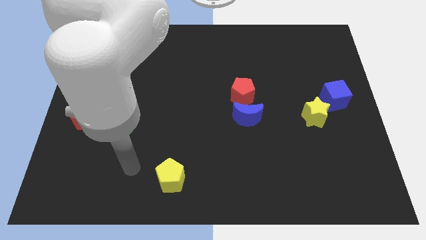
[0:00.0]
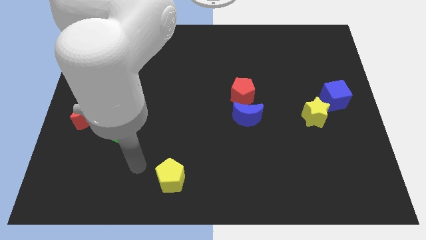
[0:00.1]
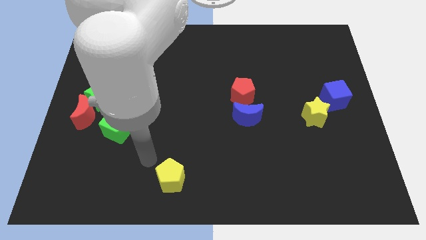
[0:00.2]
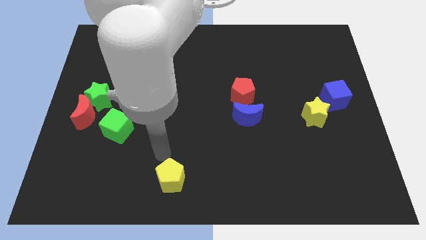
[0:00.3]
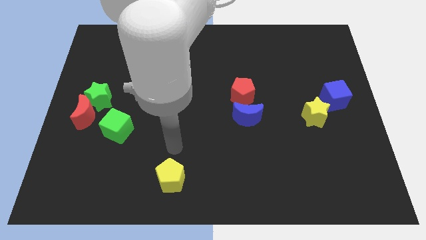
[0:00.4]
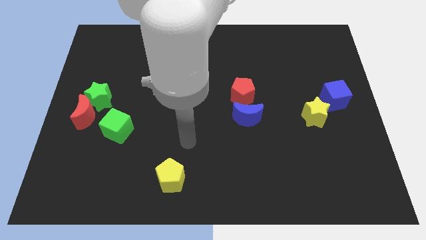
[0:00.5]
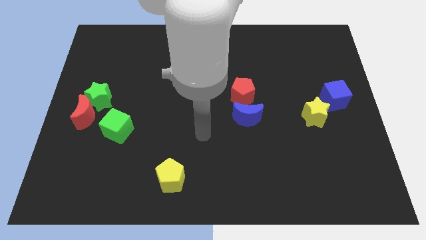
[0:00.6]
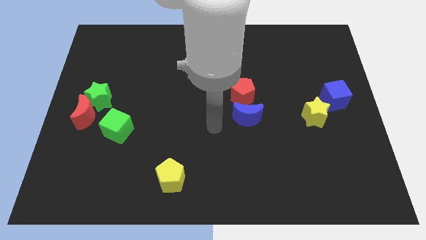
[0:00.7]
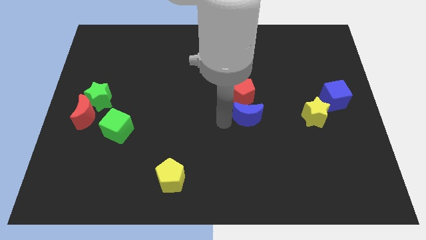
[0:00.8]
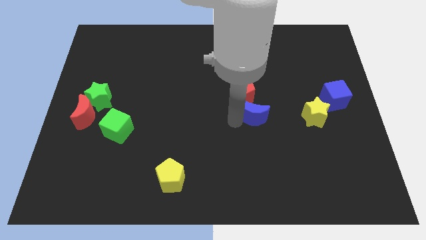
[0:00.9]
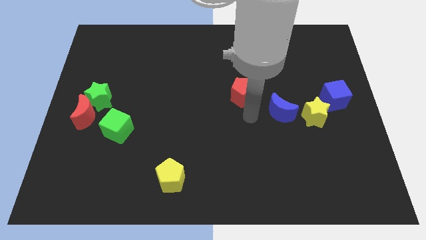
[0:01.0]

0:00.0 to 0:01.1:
separate the red pentagon from the blue moon

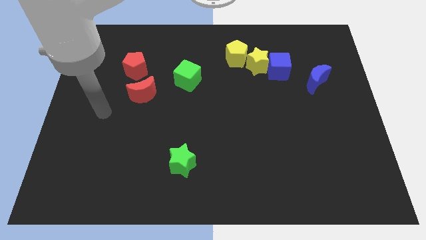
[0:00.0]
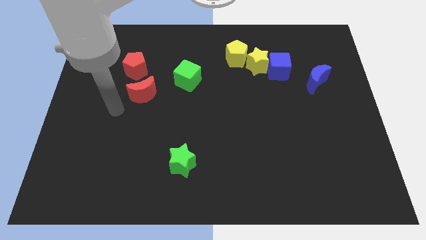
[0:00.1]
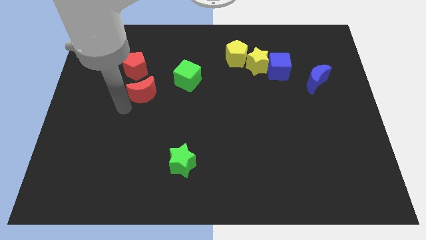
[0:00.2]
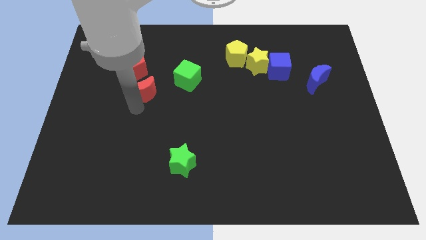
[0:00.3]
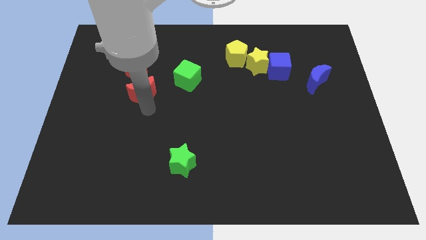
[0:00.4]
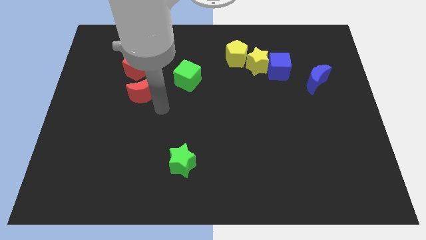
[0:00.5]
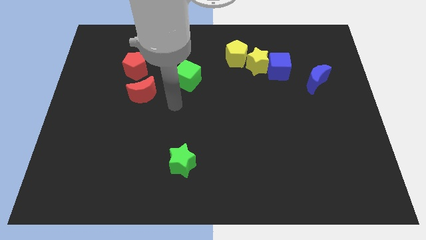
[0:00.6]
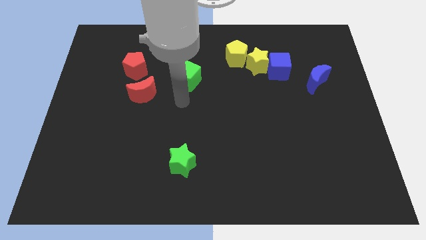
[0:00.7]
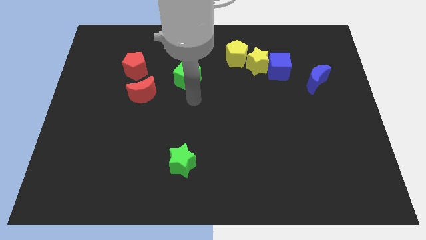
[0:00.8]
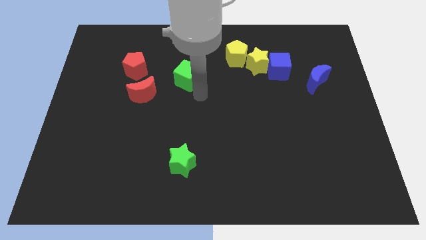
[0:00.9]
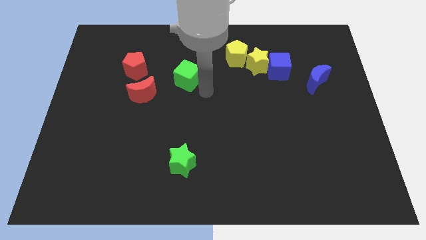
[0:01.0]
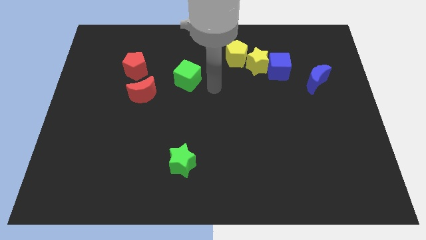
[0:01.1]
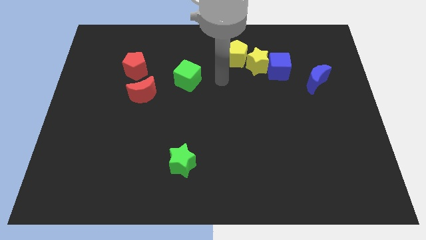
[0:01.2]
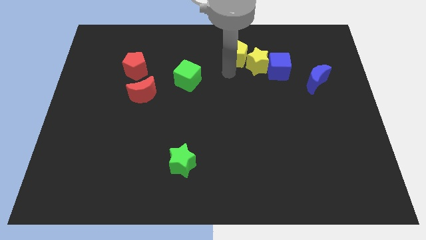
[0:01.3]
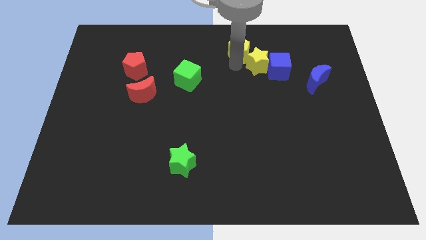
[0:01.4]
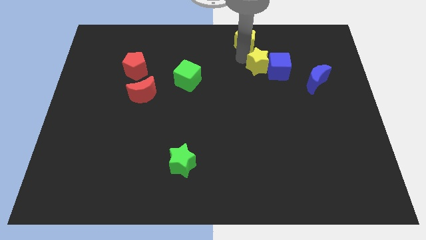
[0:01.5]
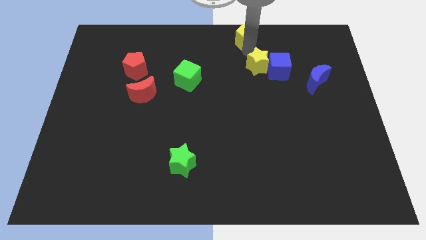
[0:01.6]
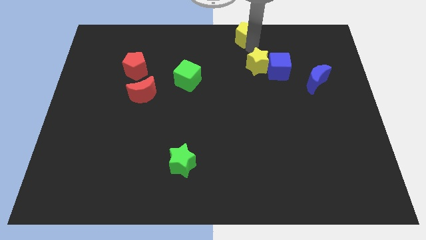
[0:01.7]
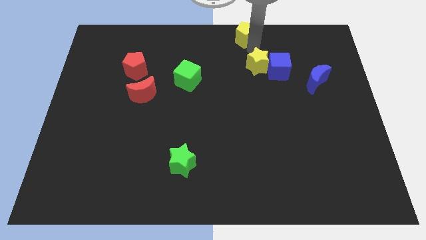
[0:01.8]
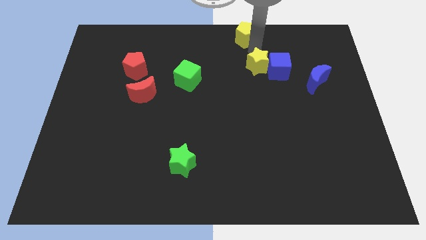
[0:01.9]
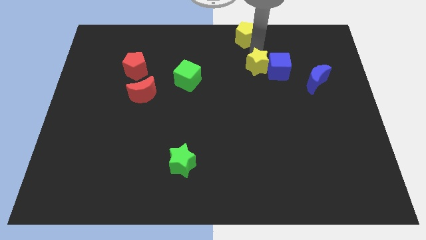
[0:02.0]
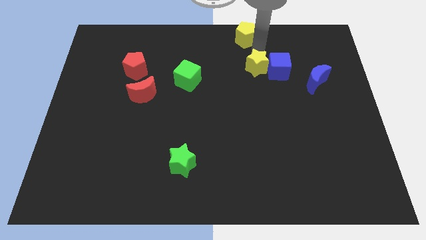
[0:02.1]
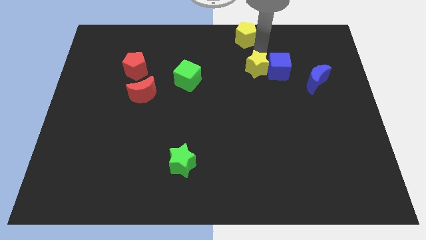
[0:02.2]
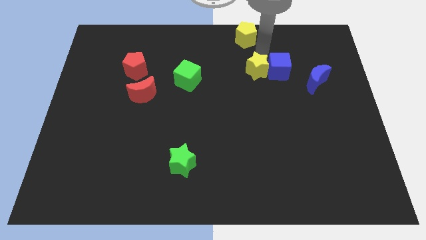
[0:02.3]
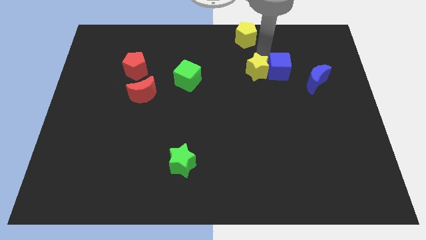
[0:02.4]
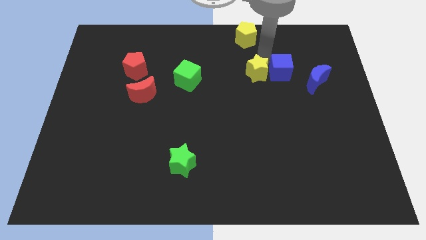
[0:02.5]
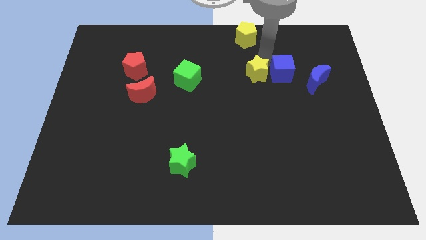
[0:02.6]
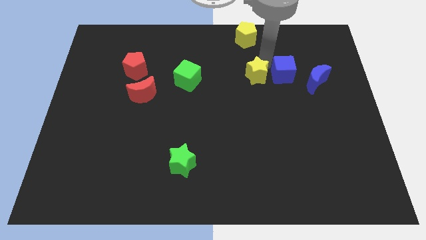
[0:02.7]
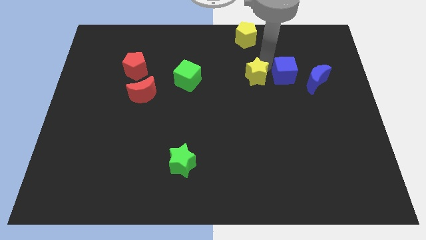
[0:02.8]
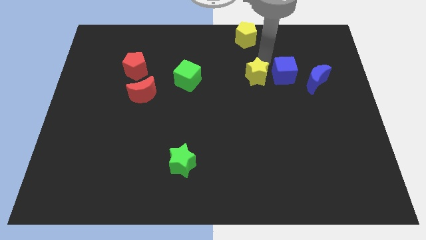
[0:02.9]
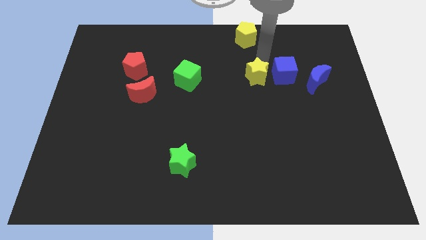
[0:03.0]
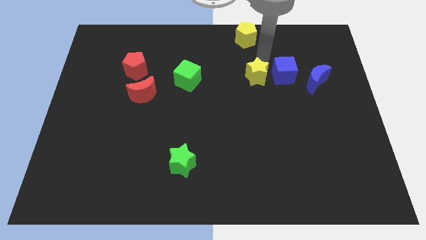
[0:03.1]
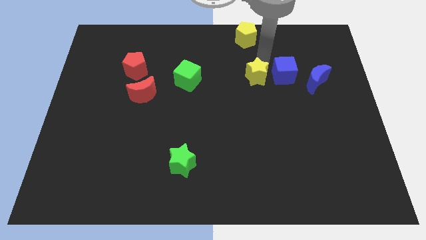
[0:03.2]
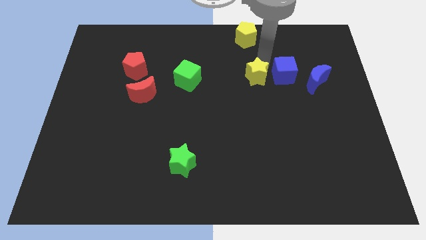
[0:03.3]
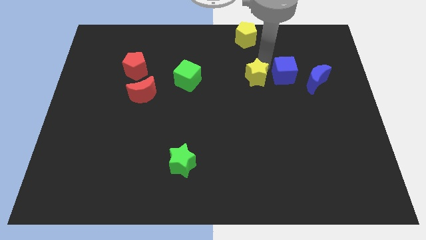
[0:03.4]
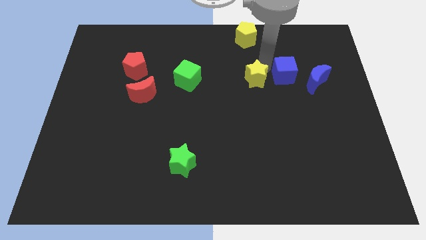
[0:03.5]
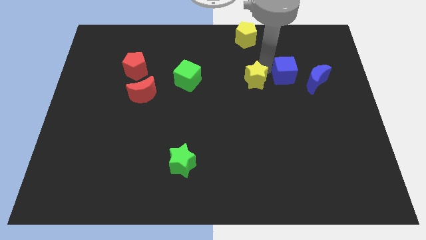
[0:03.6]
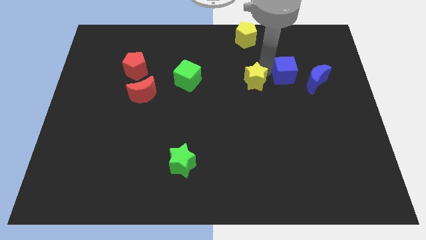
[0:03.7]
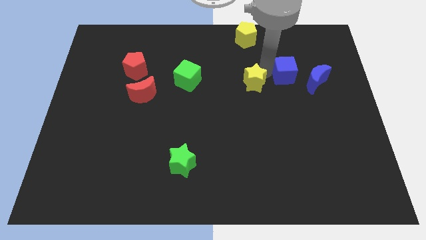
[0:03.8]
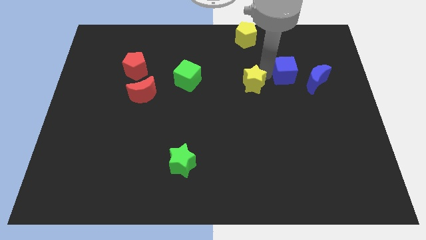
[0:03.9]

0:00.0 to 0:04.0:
separate the yellow star from the blue cube and yellow pentagon

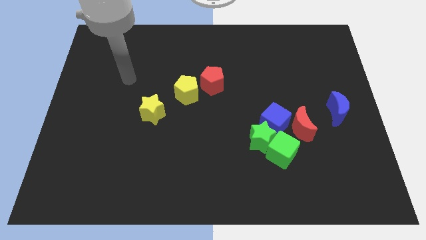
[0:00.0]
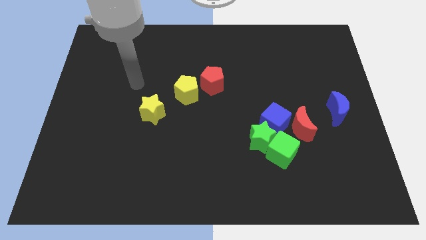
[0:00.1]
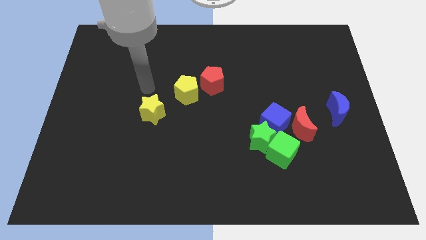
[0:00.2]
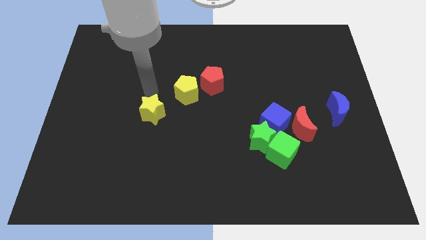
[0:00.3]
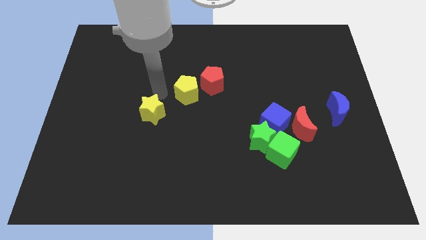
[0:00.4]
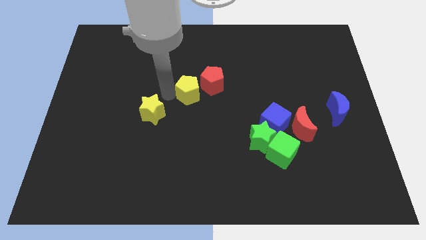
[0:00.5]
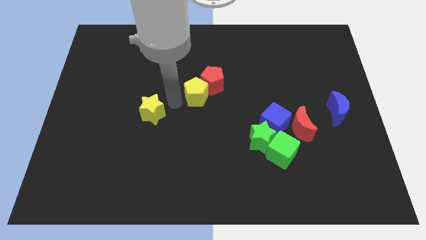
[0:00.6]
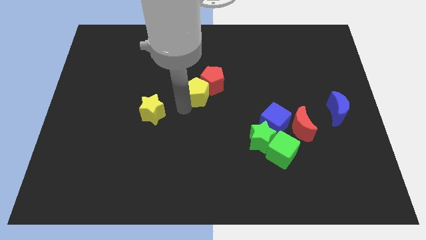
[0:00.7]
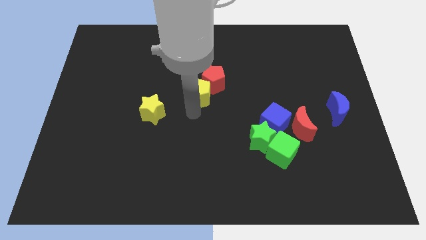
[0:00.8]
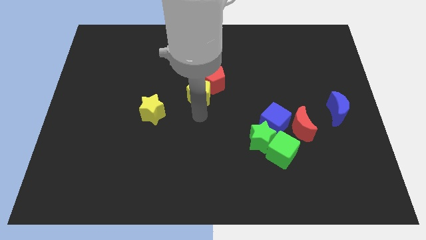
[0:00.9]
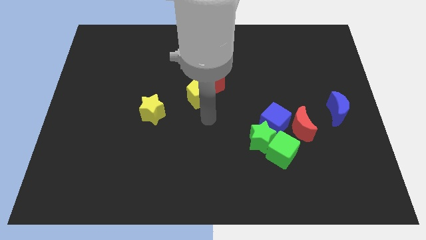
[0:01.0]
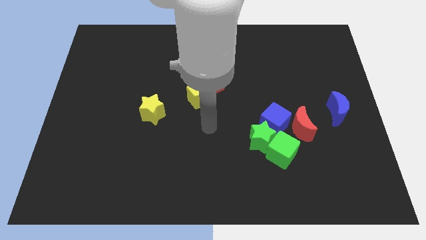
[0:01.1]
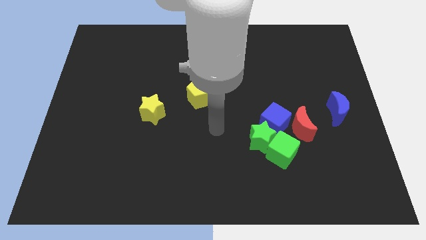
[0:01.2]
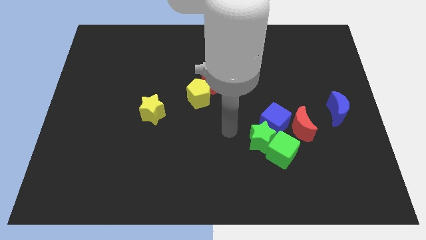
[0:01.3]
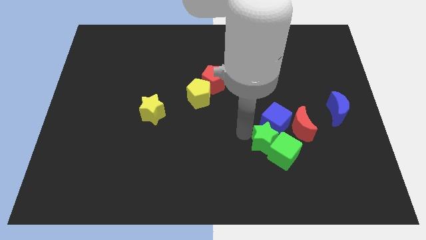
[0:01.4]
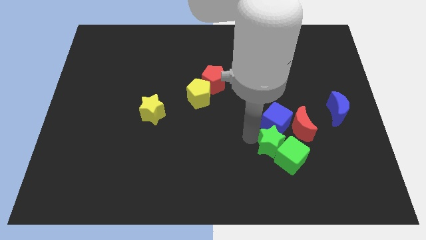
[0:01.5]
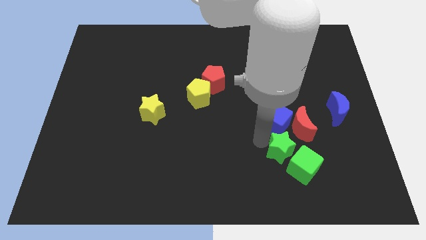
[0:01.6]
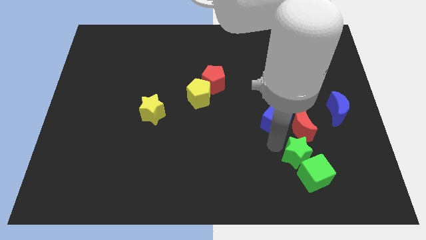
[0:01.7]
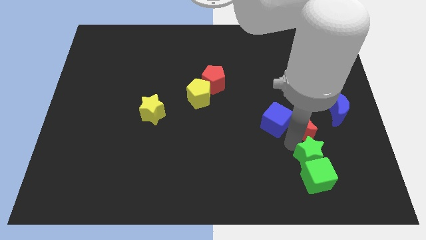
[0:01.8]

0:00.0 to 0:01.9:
pull the blue cube apart from the green star, red moon, and green cube

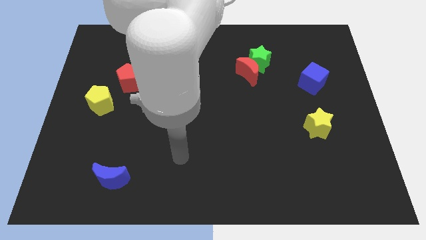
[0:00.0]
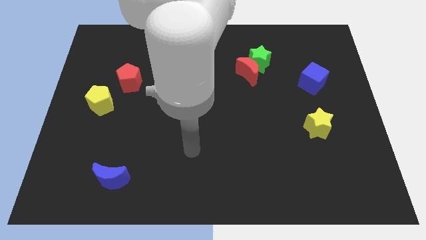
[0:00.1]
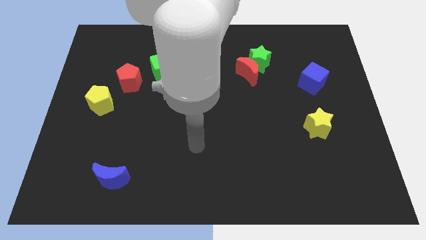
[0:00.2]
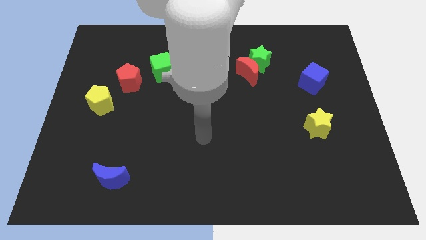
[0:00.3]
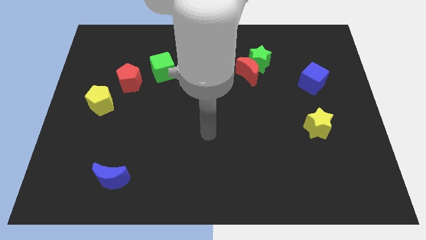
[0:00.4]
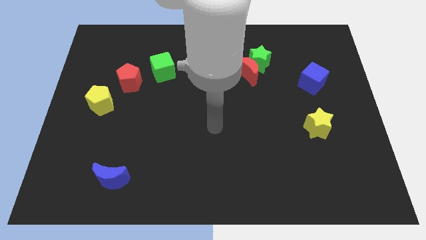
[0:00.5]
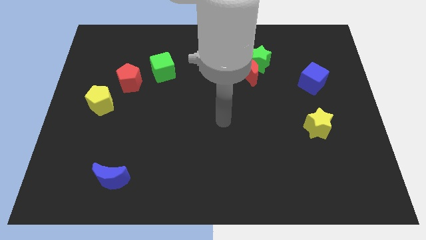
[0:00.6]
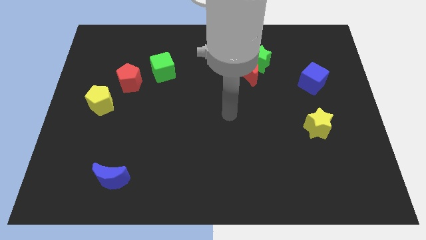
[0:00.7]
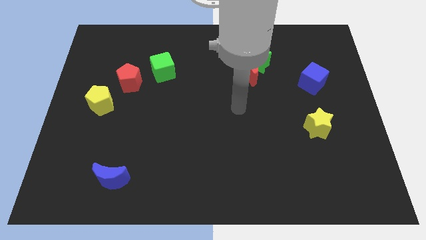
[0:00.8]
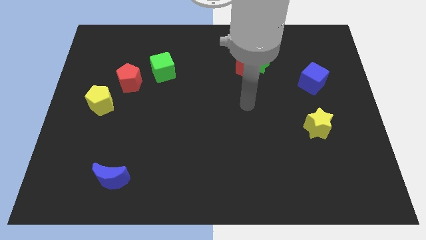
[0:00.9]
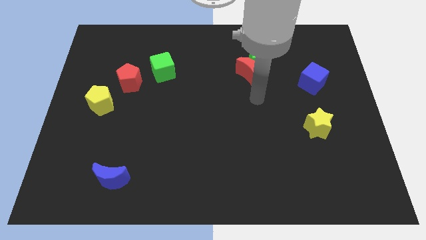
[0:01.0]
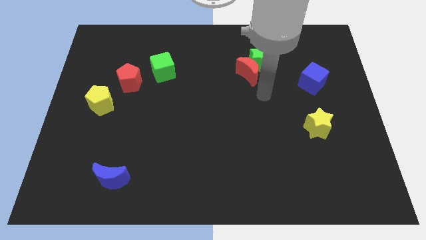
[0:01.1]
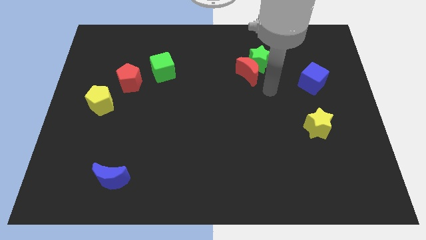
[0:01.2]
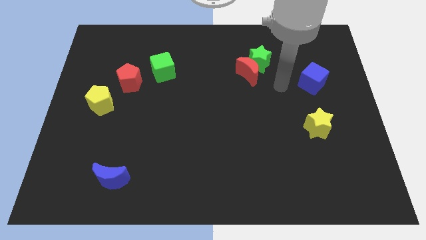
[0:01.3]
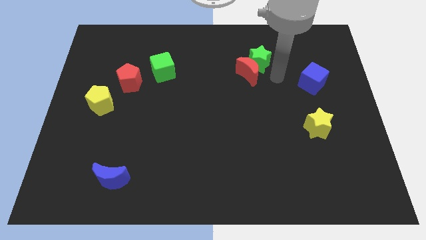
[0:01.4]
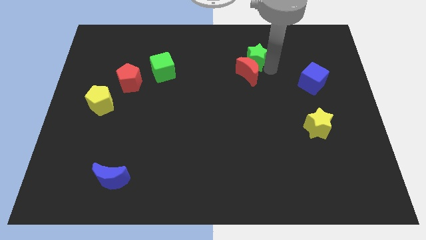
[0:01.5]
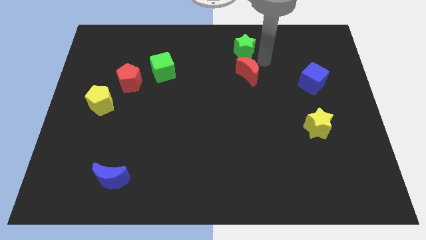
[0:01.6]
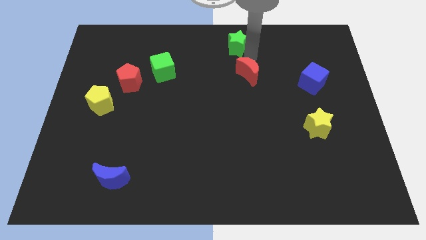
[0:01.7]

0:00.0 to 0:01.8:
pull the red moon apart from the green star

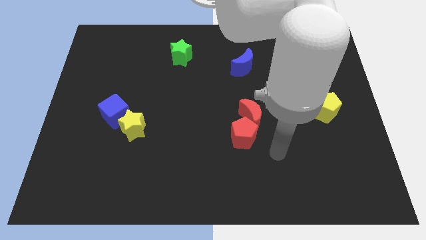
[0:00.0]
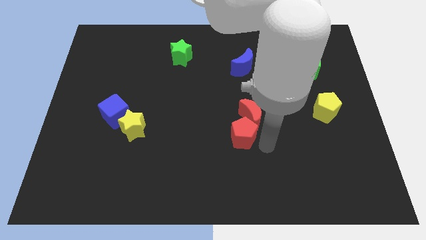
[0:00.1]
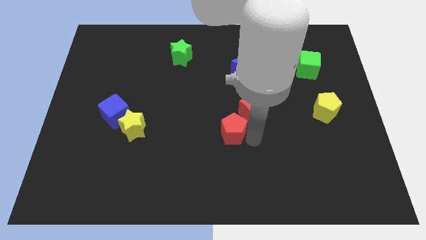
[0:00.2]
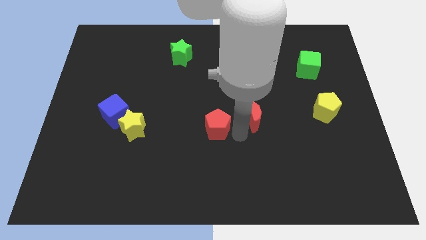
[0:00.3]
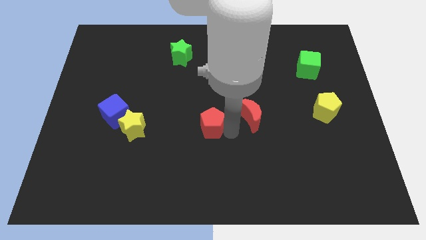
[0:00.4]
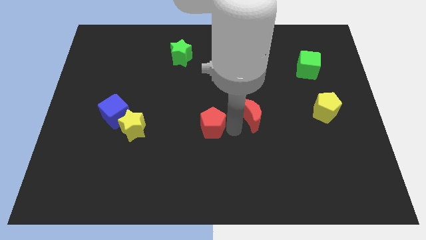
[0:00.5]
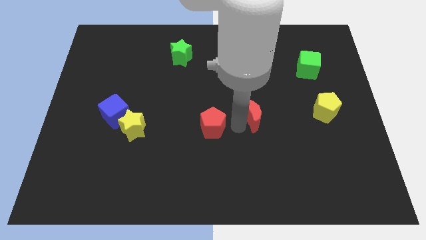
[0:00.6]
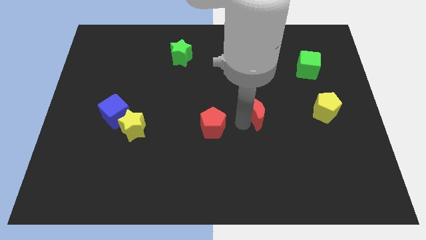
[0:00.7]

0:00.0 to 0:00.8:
separate the red moon from the red pentagon
